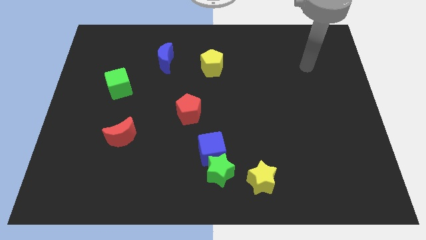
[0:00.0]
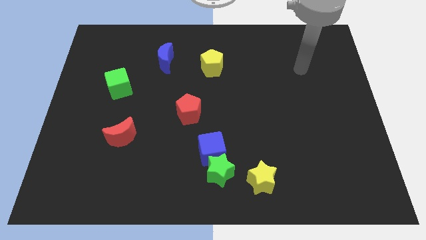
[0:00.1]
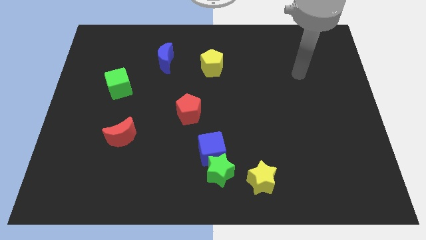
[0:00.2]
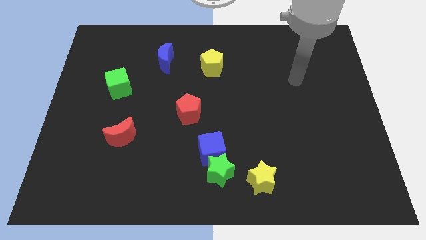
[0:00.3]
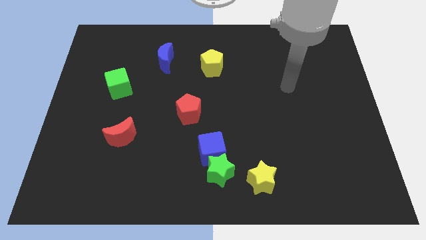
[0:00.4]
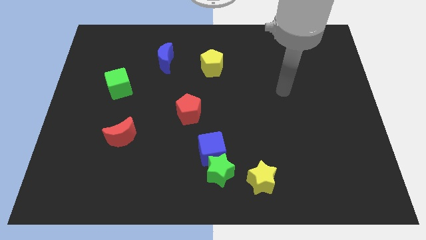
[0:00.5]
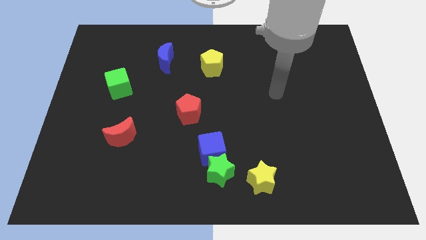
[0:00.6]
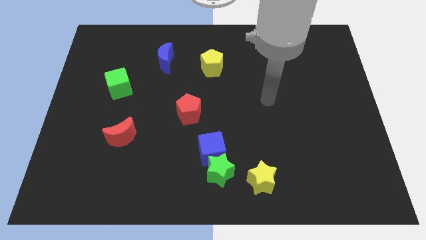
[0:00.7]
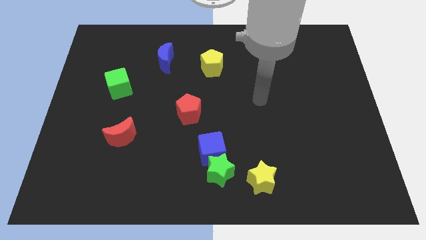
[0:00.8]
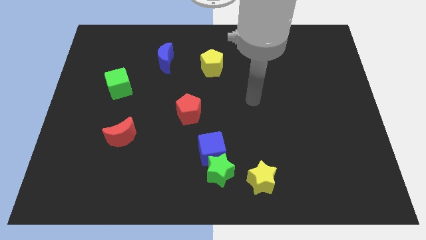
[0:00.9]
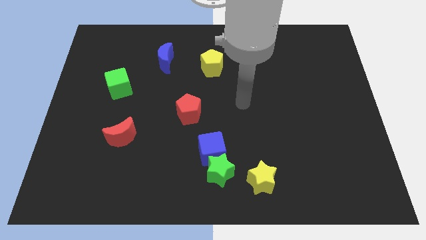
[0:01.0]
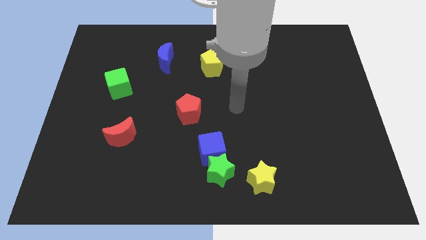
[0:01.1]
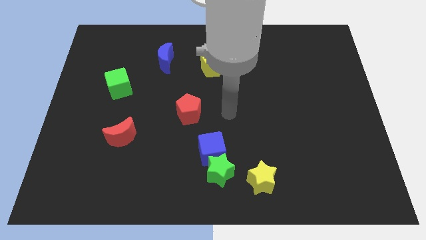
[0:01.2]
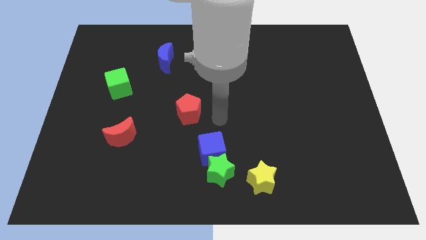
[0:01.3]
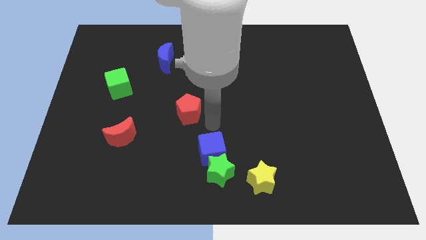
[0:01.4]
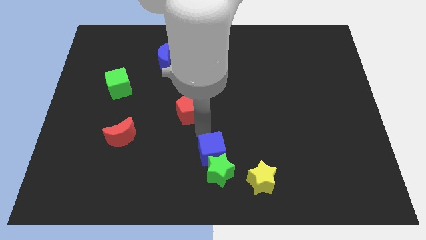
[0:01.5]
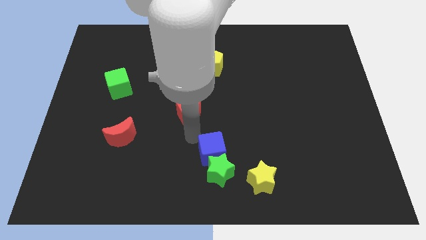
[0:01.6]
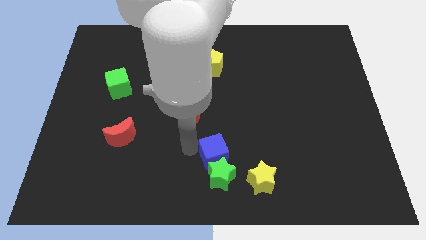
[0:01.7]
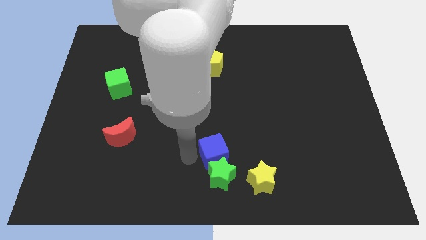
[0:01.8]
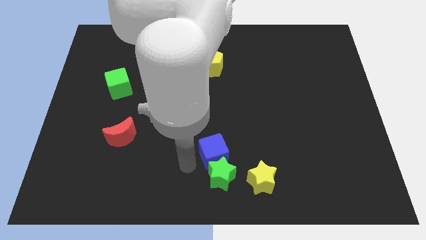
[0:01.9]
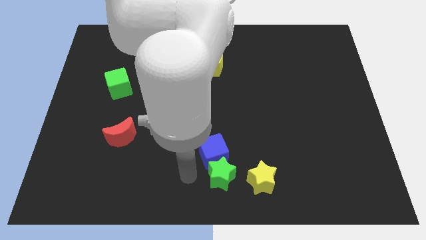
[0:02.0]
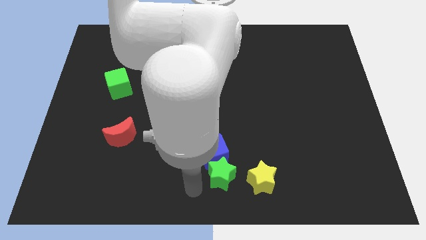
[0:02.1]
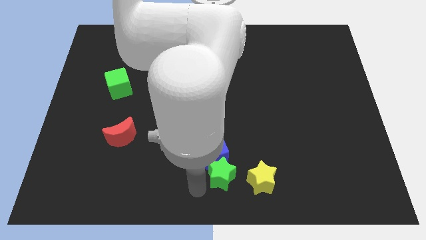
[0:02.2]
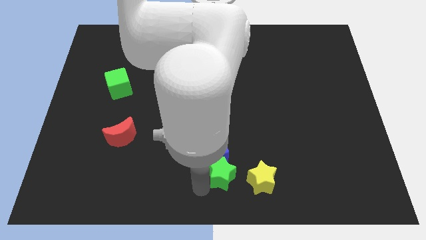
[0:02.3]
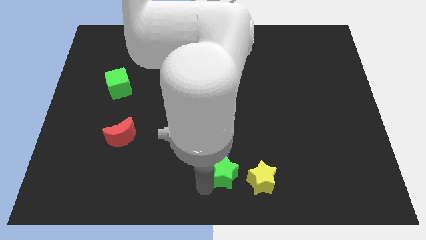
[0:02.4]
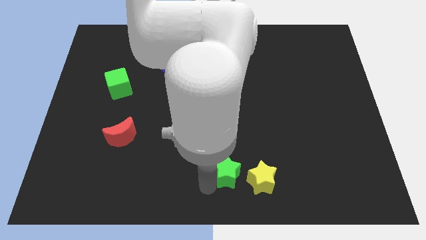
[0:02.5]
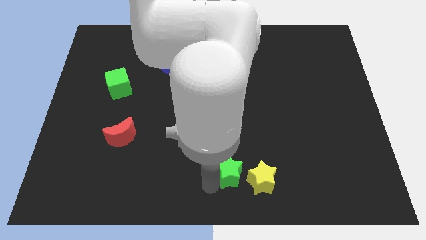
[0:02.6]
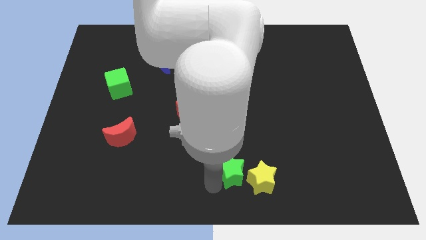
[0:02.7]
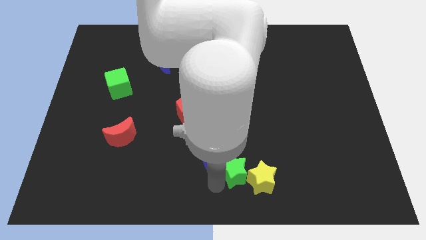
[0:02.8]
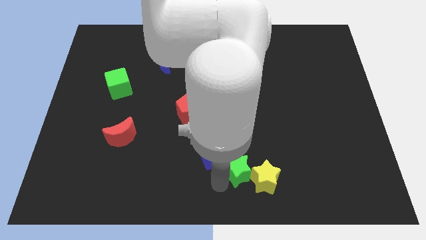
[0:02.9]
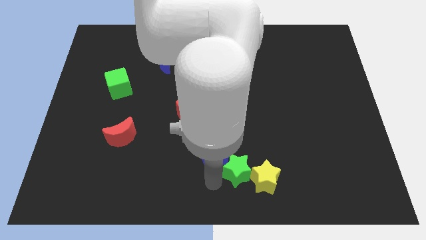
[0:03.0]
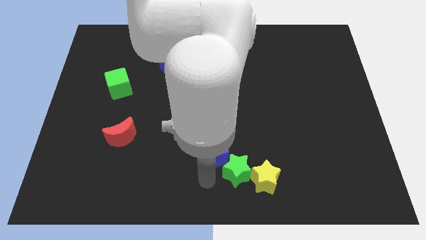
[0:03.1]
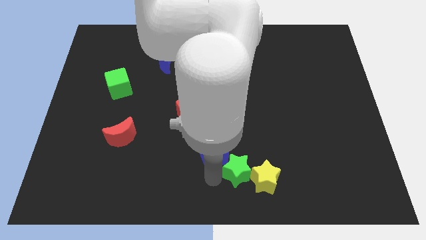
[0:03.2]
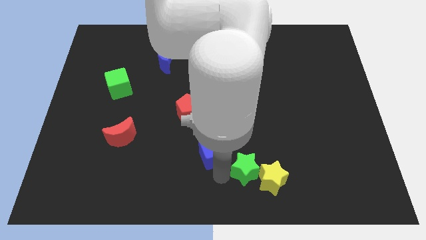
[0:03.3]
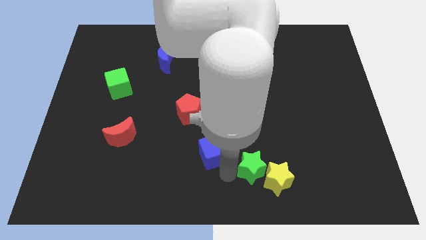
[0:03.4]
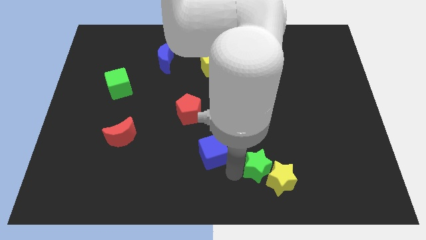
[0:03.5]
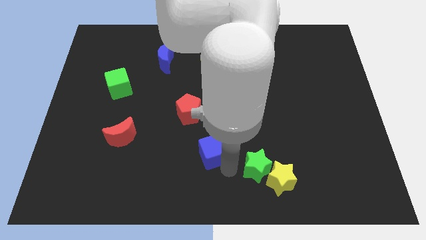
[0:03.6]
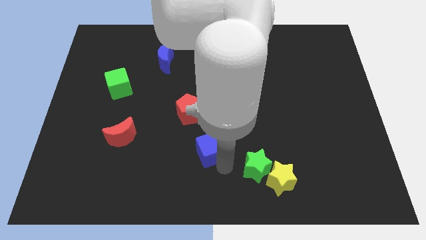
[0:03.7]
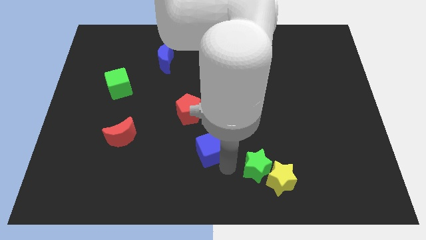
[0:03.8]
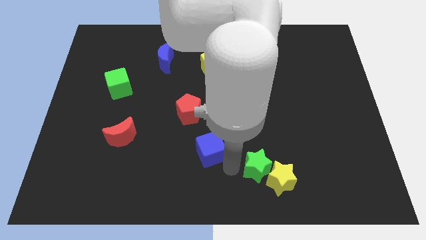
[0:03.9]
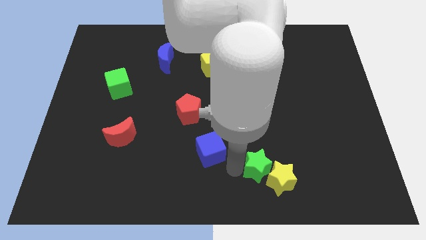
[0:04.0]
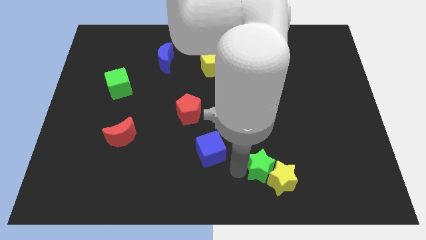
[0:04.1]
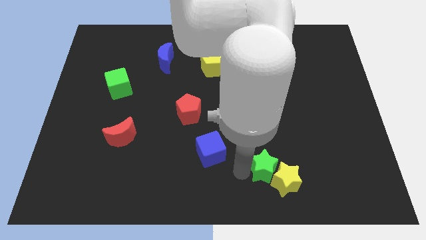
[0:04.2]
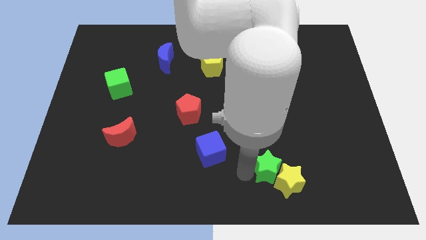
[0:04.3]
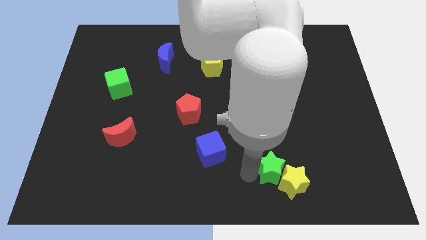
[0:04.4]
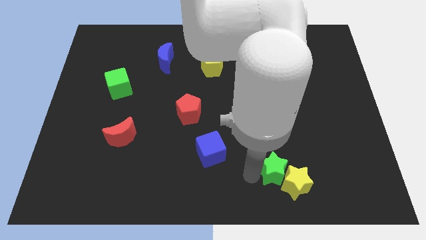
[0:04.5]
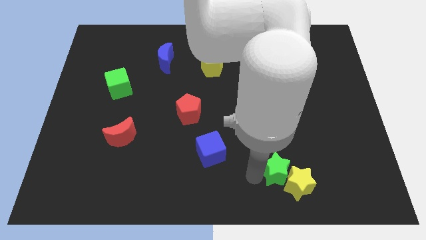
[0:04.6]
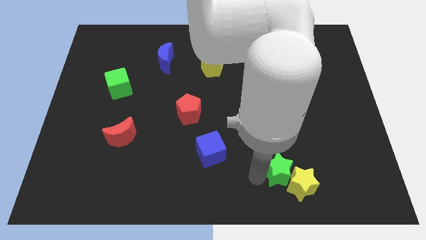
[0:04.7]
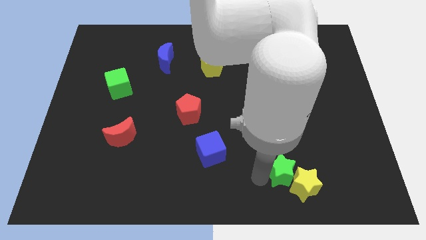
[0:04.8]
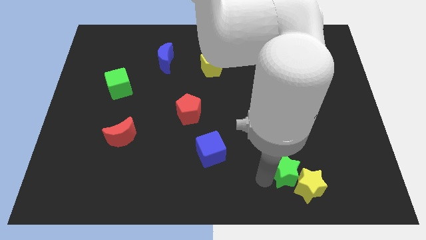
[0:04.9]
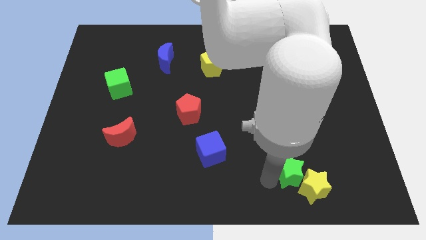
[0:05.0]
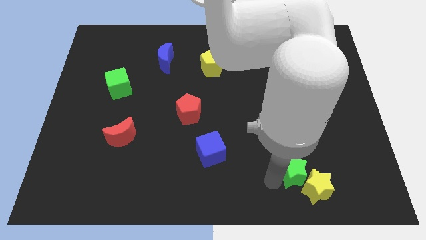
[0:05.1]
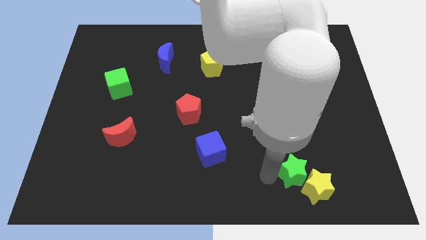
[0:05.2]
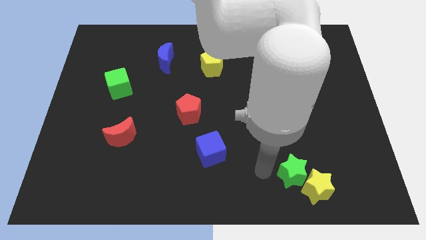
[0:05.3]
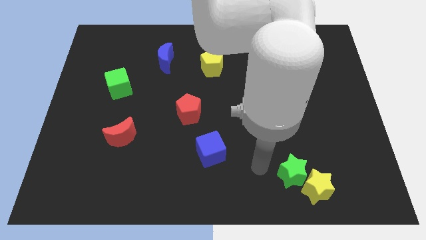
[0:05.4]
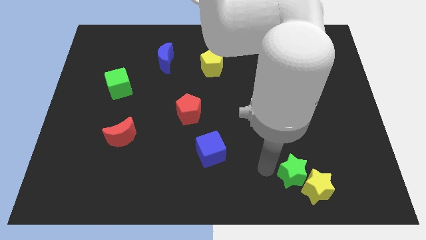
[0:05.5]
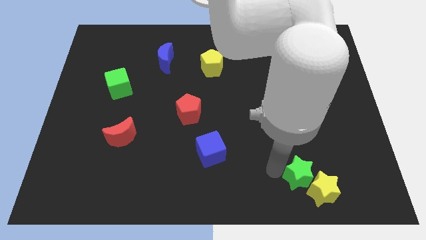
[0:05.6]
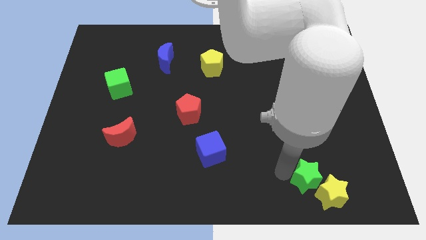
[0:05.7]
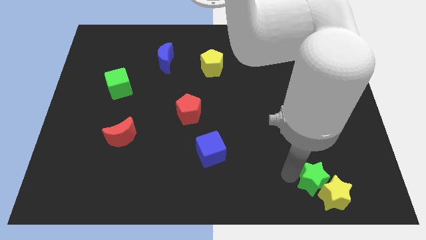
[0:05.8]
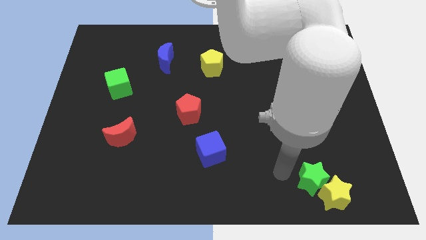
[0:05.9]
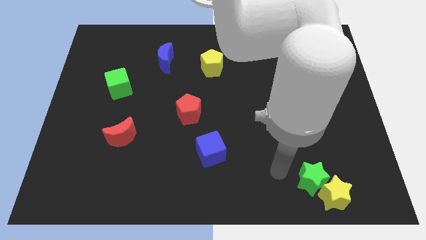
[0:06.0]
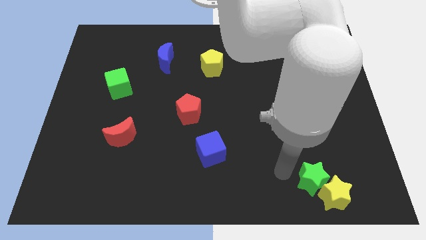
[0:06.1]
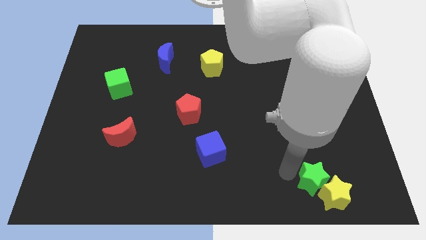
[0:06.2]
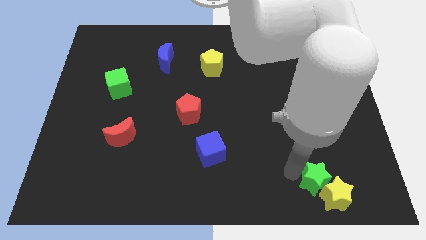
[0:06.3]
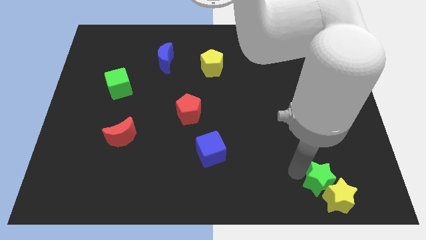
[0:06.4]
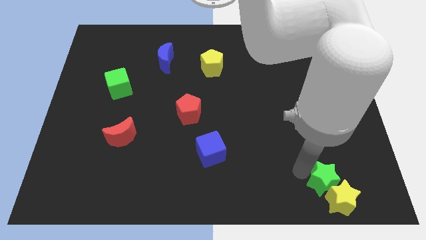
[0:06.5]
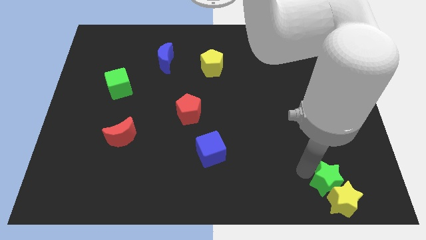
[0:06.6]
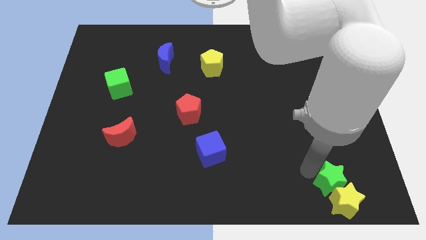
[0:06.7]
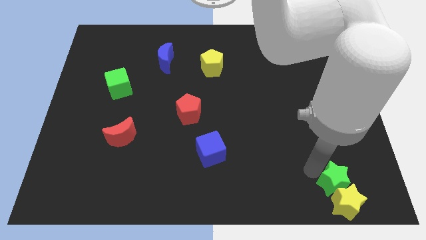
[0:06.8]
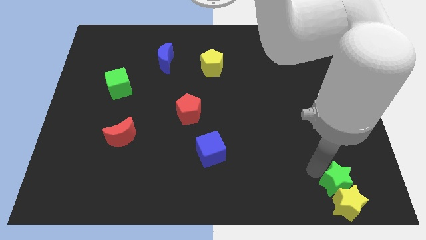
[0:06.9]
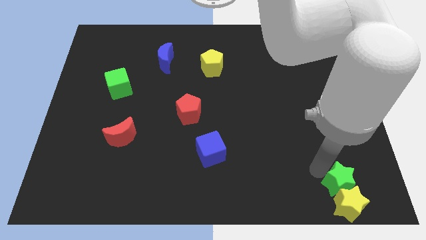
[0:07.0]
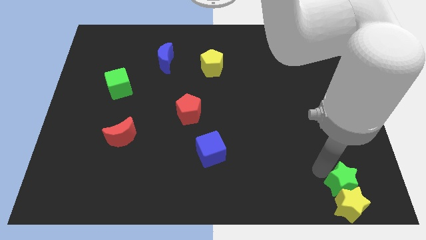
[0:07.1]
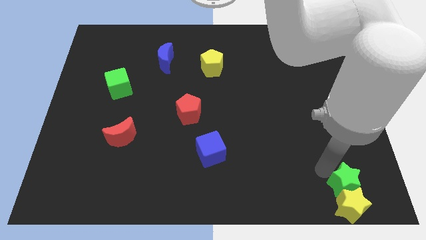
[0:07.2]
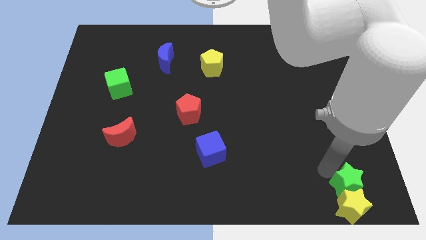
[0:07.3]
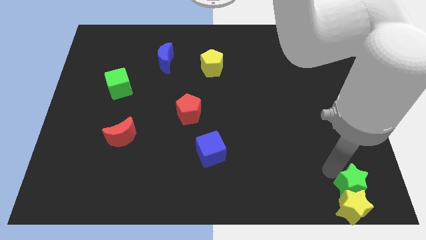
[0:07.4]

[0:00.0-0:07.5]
slide the green star to the bottom right corner

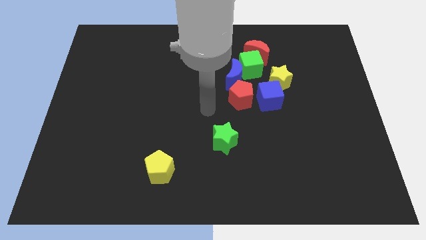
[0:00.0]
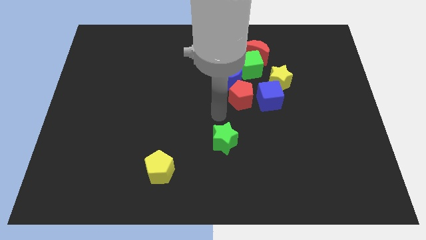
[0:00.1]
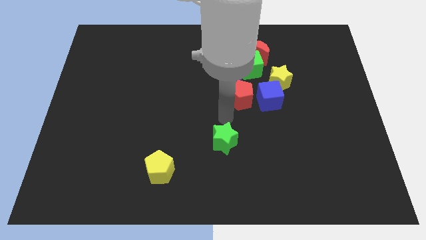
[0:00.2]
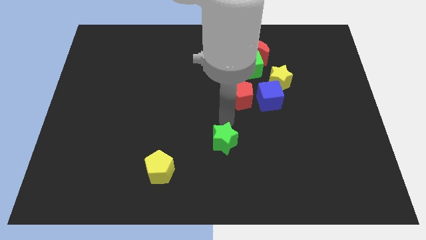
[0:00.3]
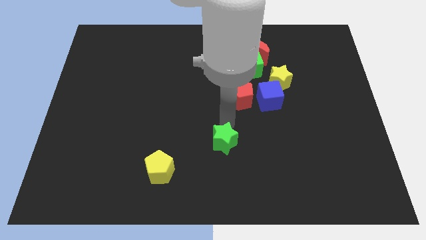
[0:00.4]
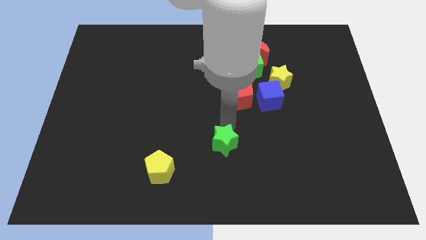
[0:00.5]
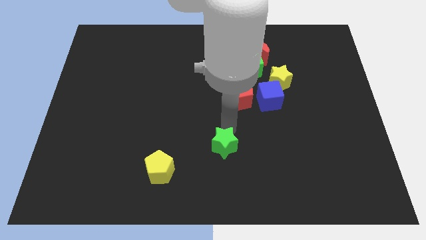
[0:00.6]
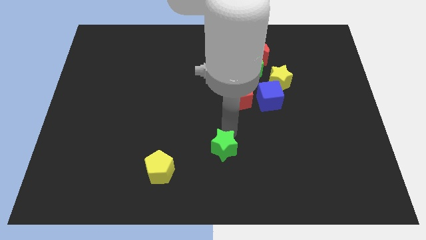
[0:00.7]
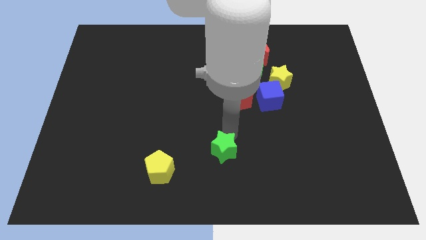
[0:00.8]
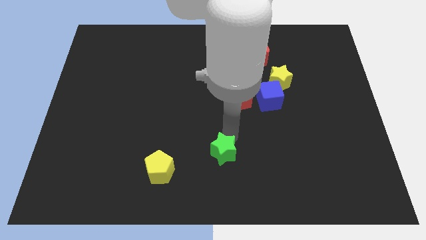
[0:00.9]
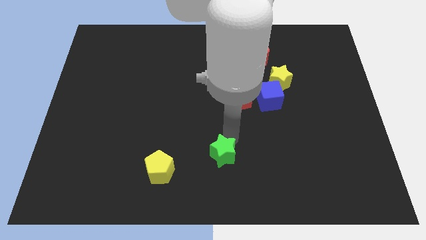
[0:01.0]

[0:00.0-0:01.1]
move the green star to the bottom
